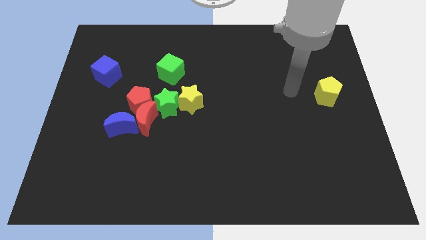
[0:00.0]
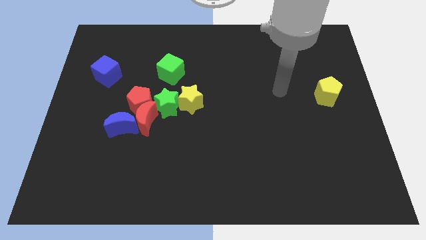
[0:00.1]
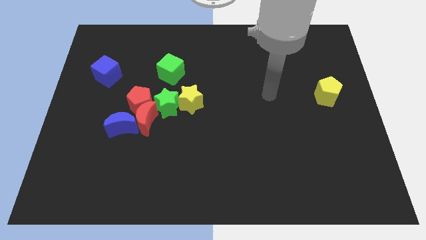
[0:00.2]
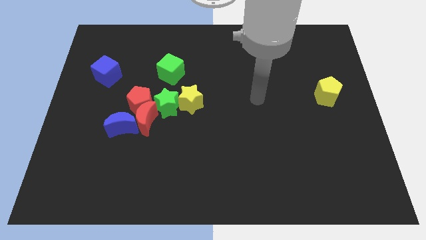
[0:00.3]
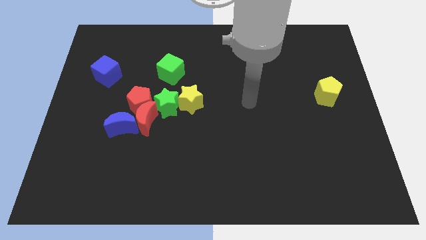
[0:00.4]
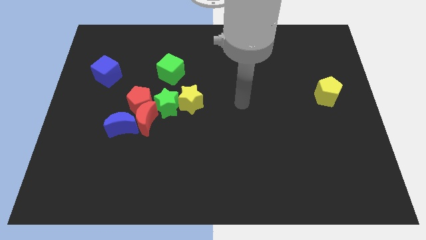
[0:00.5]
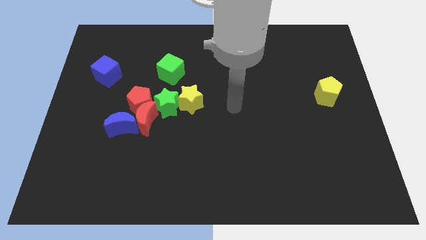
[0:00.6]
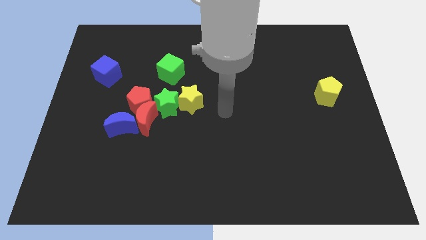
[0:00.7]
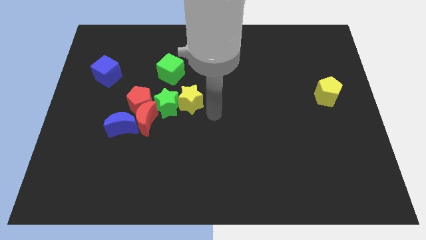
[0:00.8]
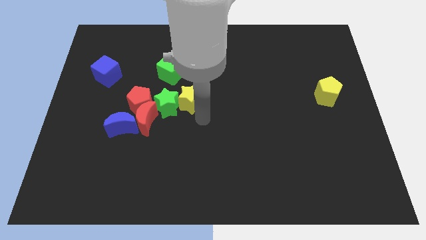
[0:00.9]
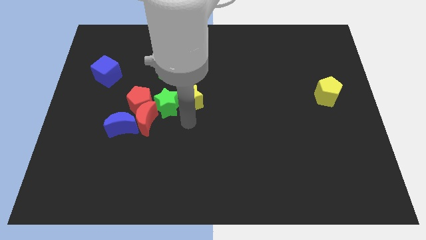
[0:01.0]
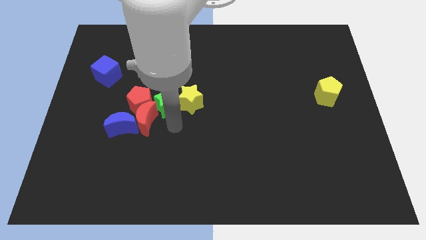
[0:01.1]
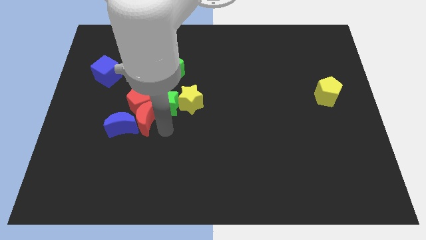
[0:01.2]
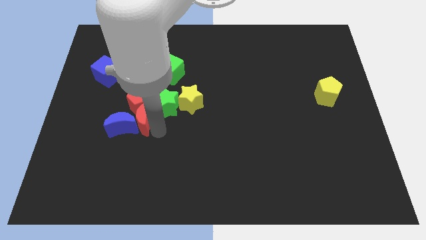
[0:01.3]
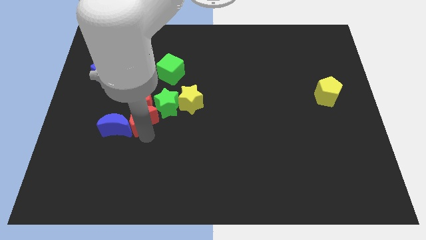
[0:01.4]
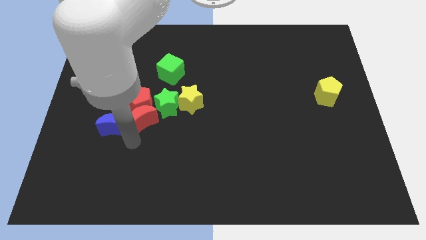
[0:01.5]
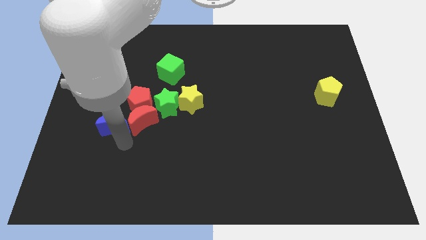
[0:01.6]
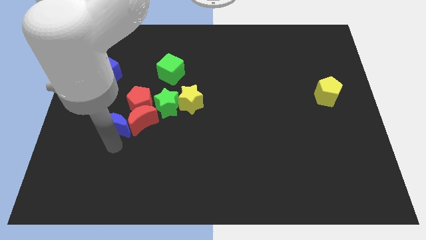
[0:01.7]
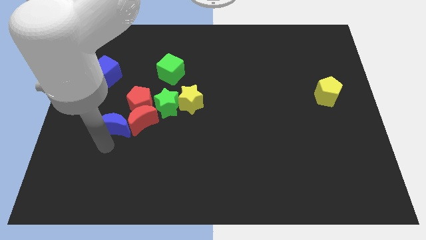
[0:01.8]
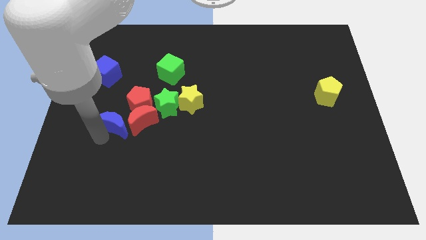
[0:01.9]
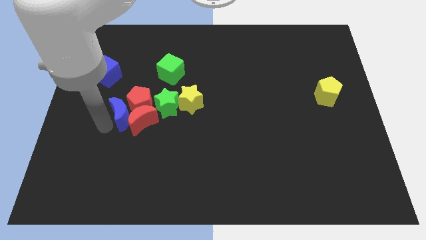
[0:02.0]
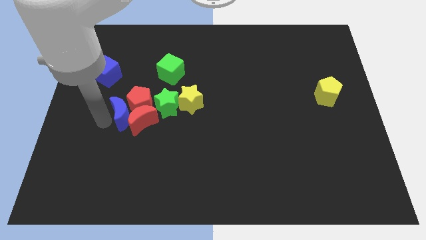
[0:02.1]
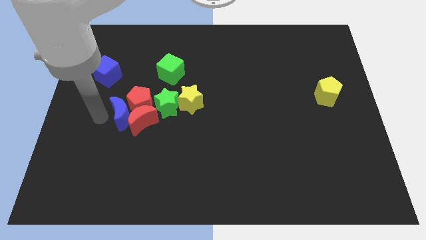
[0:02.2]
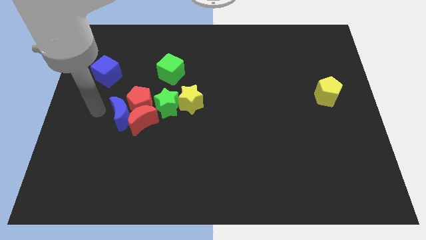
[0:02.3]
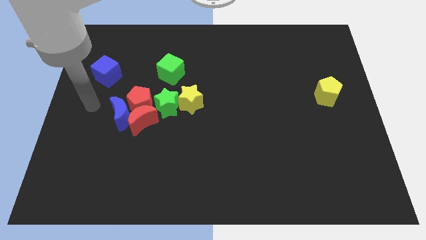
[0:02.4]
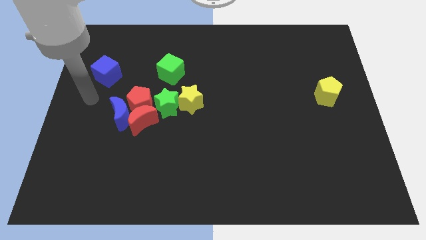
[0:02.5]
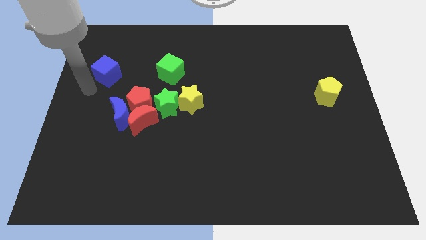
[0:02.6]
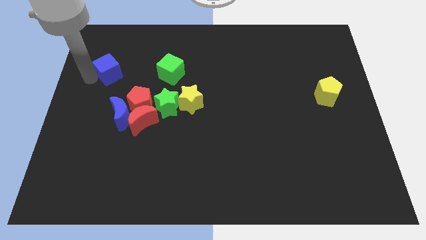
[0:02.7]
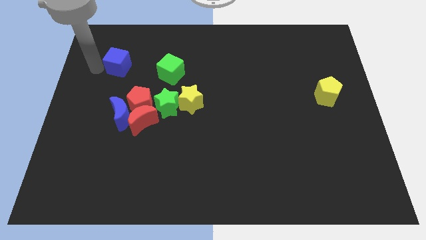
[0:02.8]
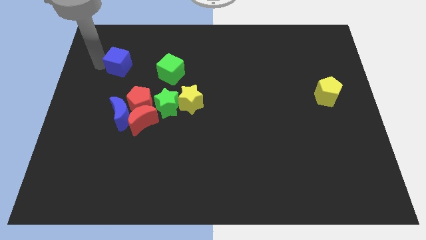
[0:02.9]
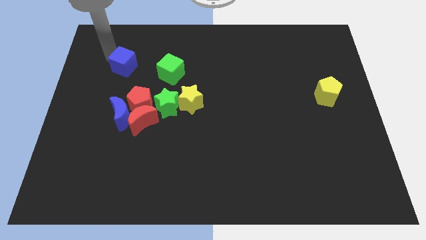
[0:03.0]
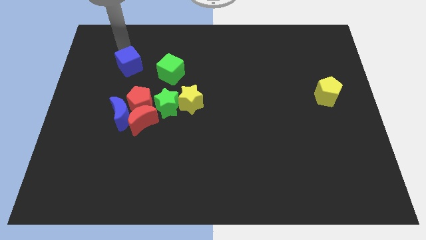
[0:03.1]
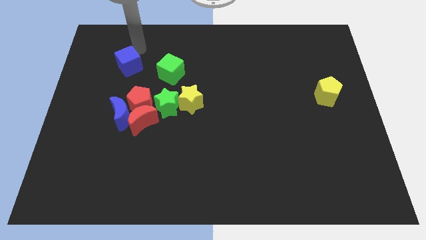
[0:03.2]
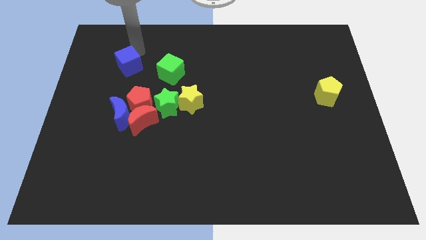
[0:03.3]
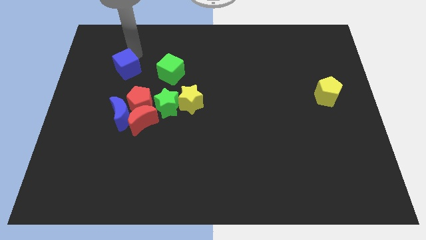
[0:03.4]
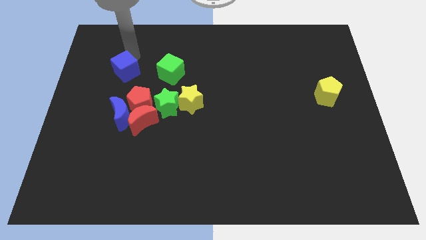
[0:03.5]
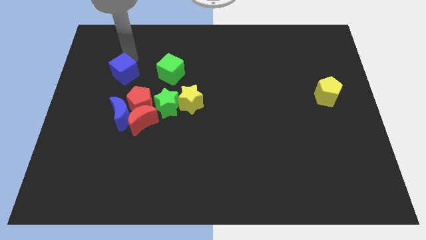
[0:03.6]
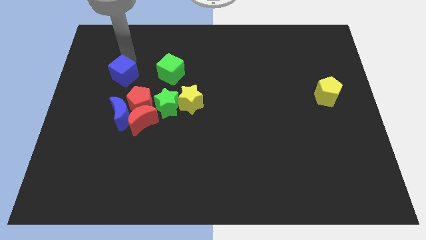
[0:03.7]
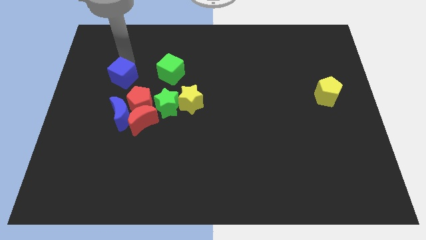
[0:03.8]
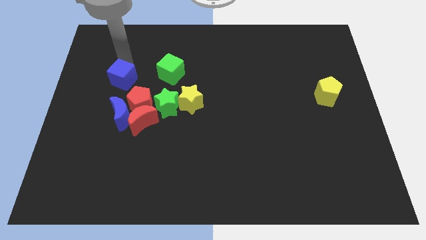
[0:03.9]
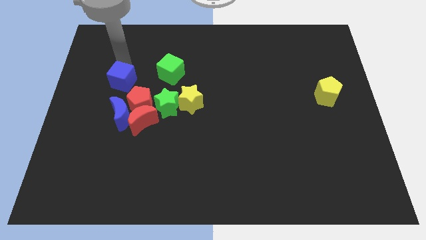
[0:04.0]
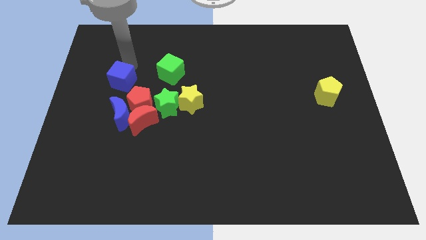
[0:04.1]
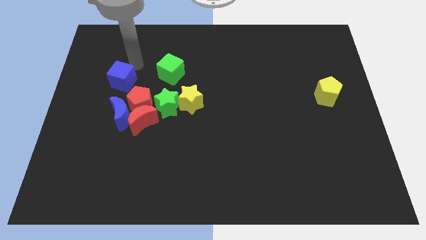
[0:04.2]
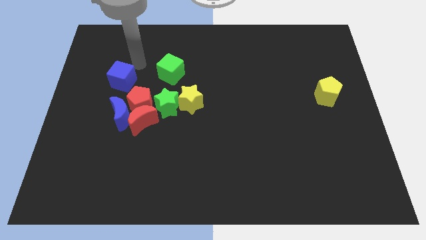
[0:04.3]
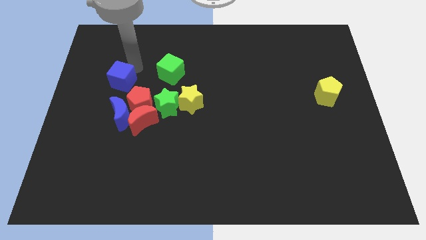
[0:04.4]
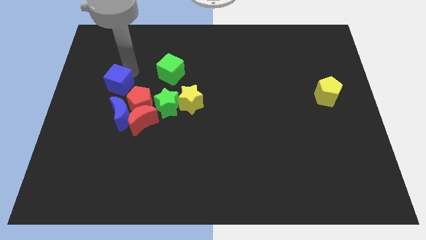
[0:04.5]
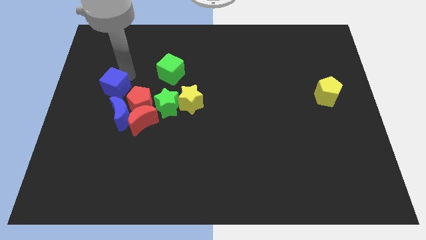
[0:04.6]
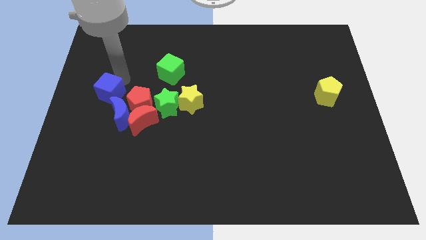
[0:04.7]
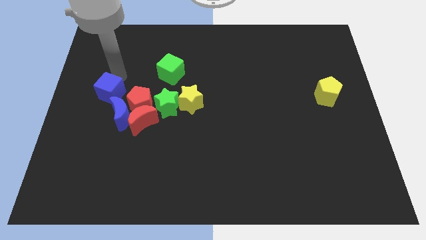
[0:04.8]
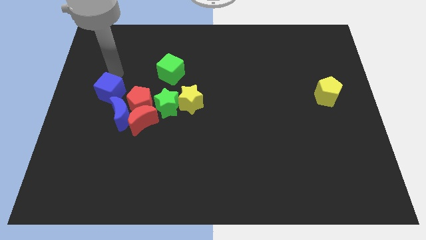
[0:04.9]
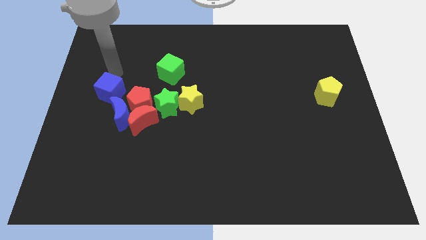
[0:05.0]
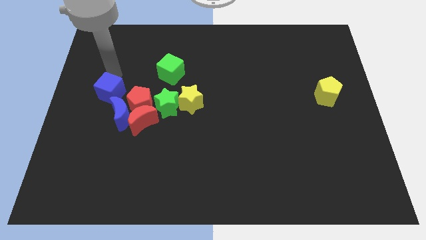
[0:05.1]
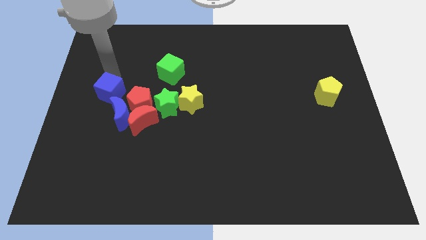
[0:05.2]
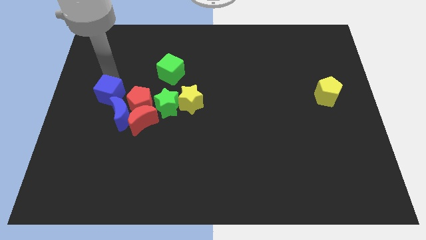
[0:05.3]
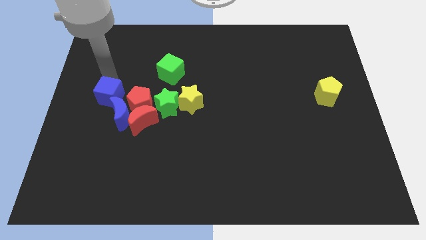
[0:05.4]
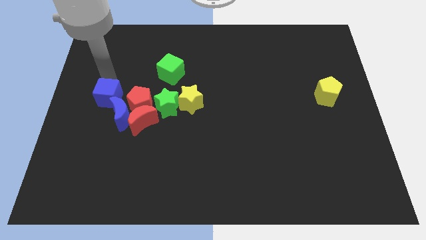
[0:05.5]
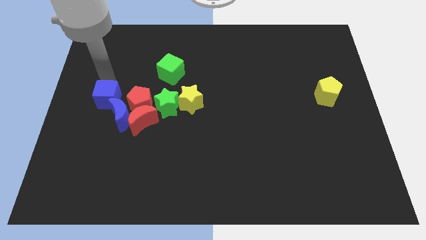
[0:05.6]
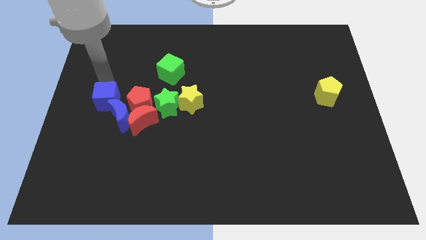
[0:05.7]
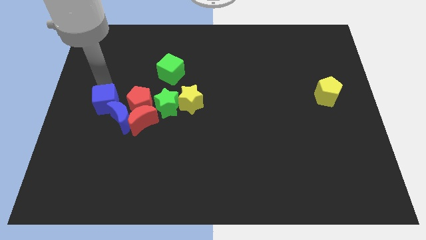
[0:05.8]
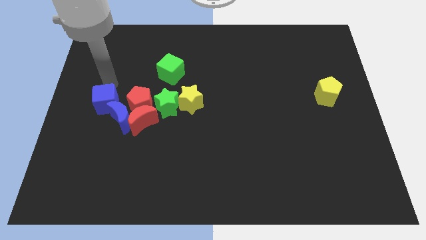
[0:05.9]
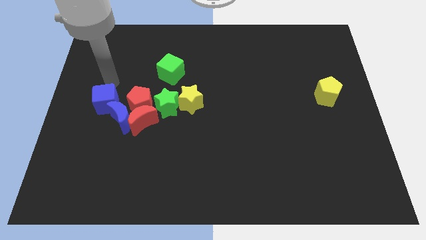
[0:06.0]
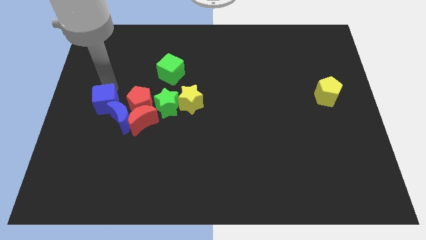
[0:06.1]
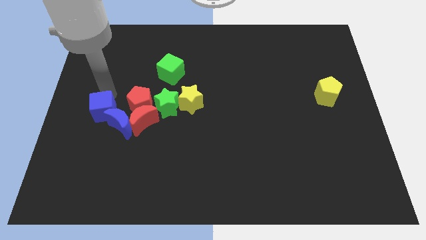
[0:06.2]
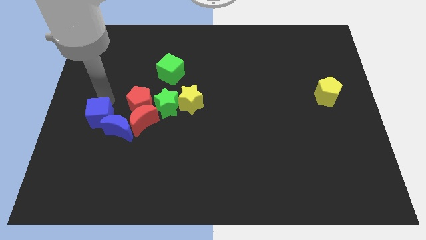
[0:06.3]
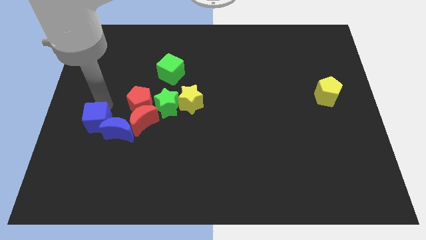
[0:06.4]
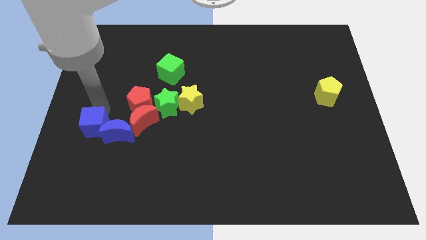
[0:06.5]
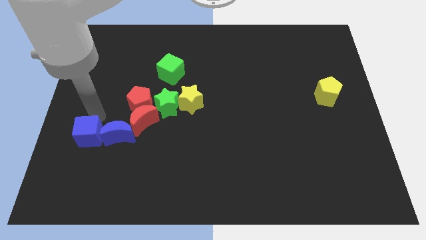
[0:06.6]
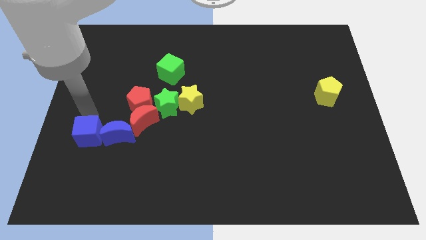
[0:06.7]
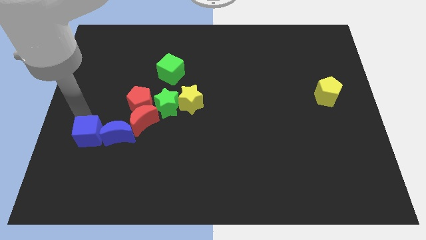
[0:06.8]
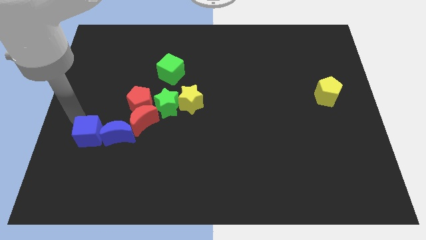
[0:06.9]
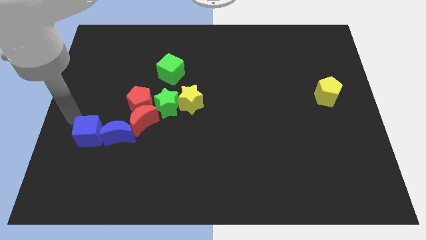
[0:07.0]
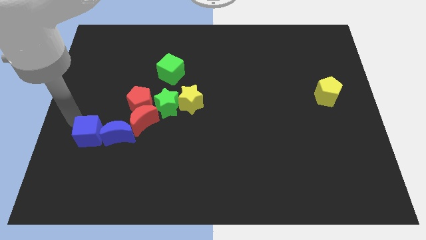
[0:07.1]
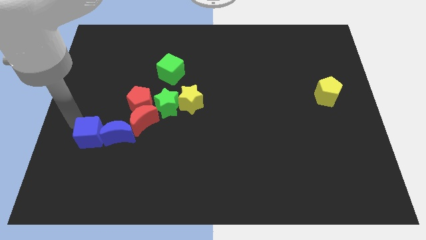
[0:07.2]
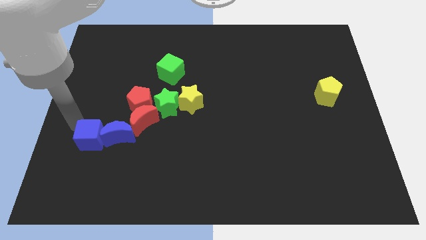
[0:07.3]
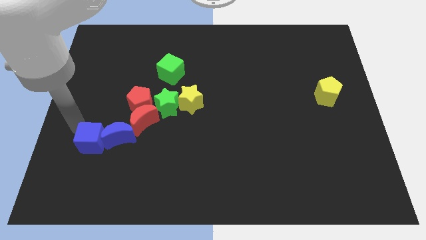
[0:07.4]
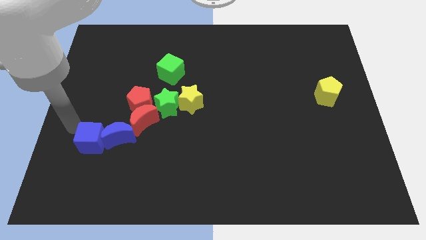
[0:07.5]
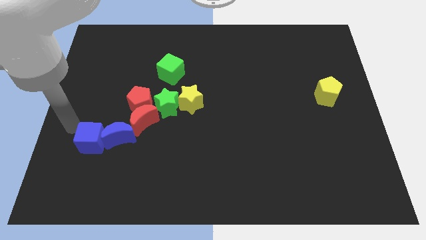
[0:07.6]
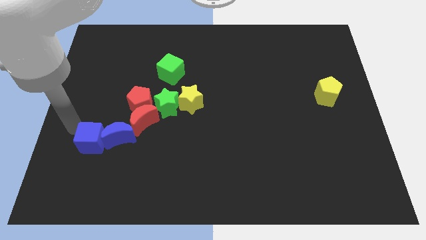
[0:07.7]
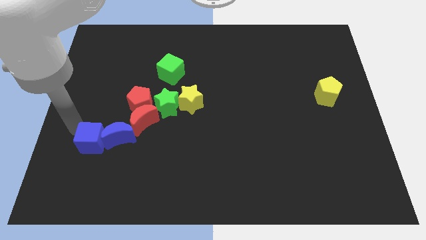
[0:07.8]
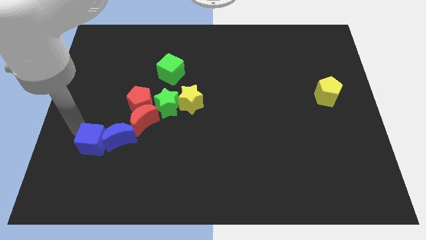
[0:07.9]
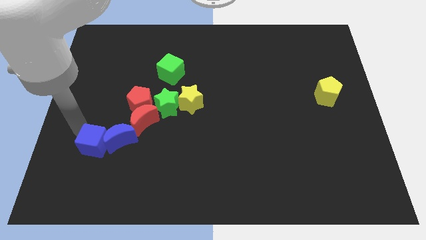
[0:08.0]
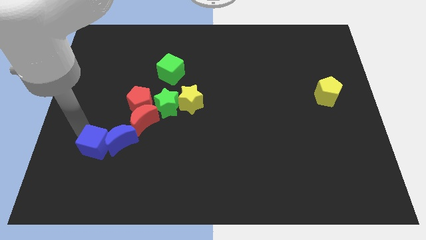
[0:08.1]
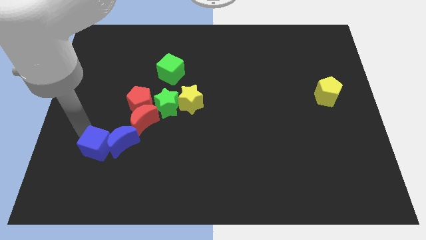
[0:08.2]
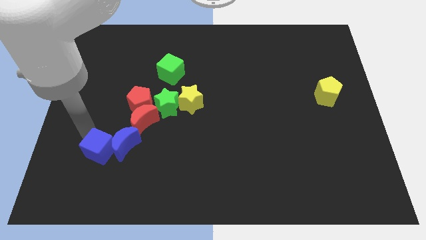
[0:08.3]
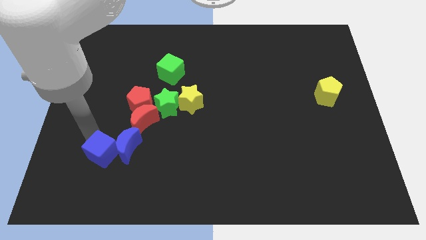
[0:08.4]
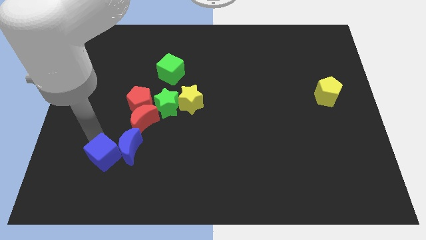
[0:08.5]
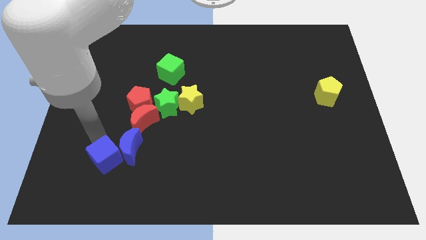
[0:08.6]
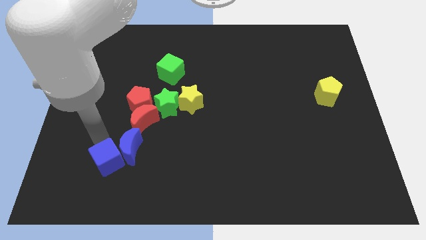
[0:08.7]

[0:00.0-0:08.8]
put the blue cube to the bottom side of the blue moon
